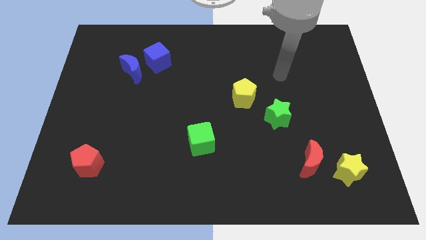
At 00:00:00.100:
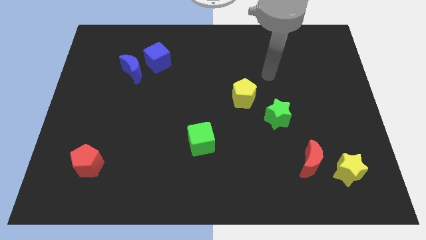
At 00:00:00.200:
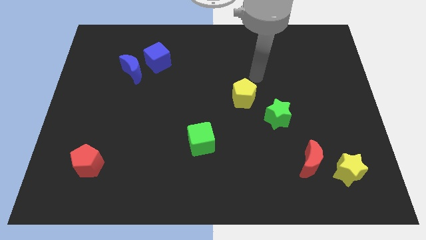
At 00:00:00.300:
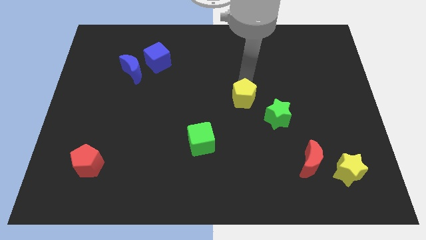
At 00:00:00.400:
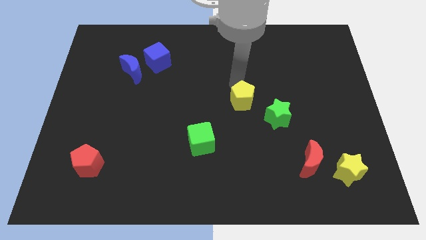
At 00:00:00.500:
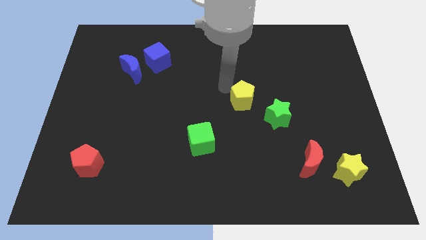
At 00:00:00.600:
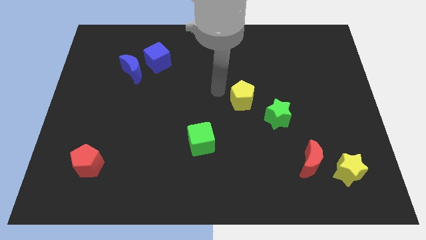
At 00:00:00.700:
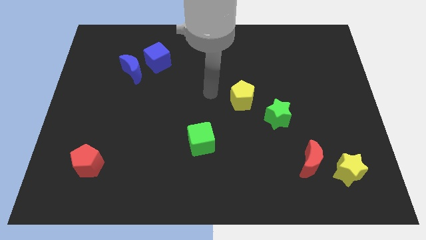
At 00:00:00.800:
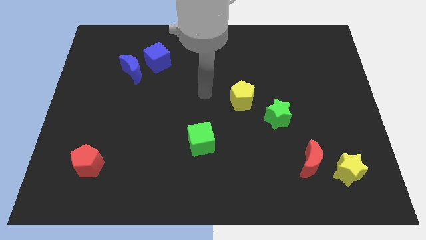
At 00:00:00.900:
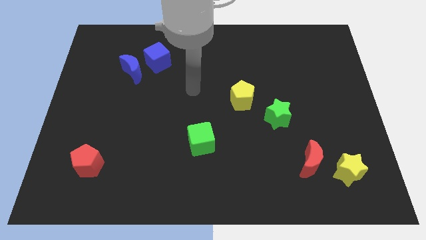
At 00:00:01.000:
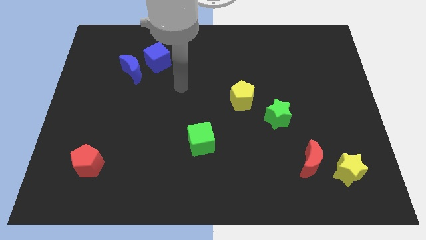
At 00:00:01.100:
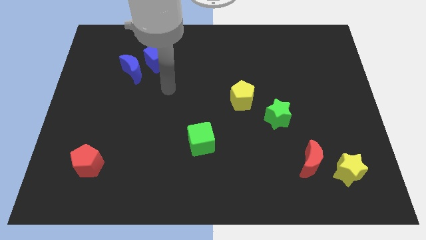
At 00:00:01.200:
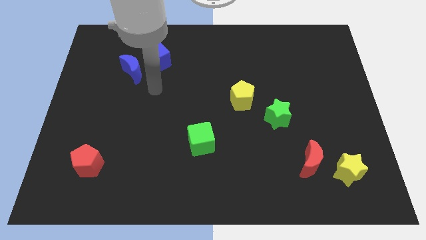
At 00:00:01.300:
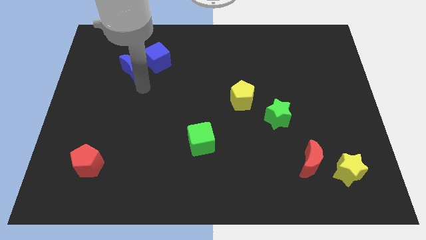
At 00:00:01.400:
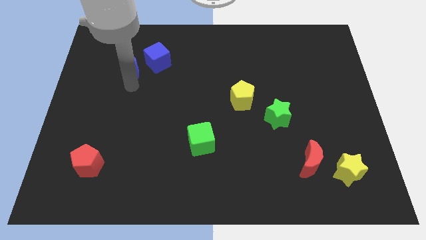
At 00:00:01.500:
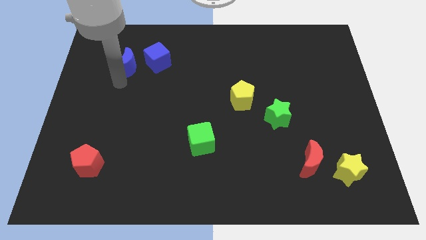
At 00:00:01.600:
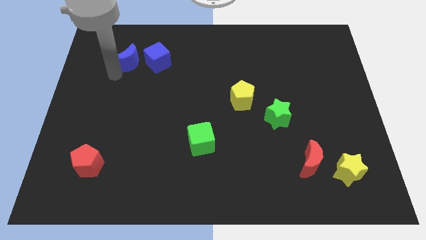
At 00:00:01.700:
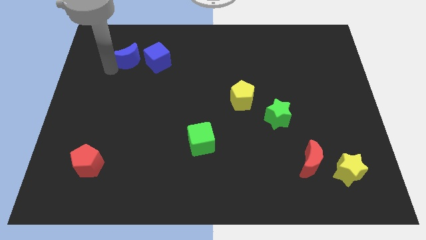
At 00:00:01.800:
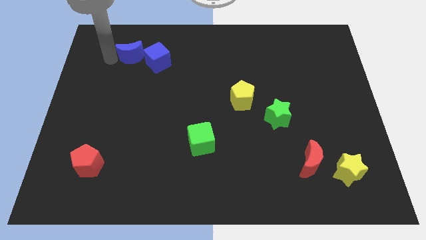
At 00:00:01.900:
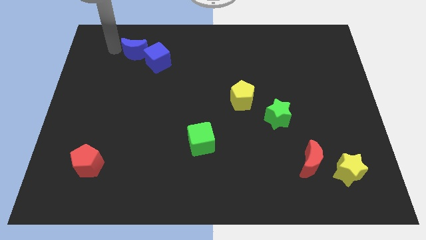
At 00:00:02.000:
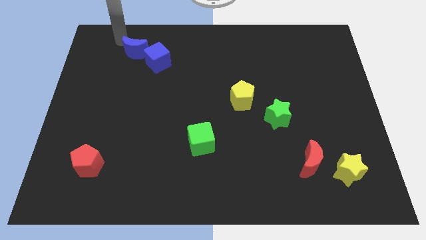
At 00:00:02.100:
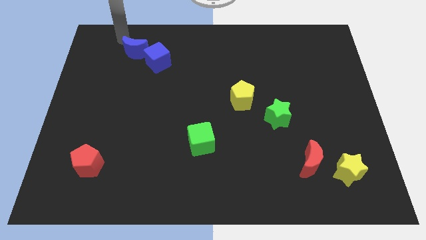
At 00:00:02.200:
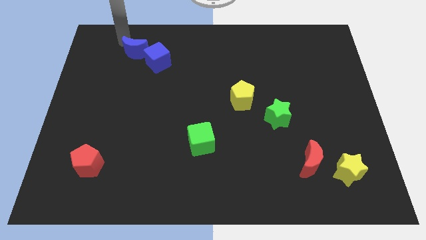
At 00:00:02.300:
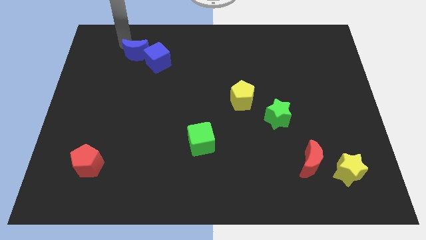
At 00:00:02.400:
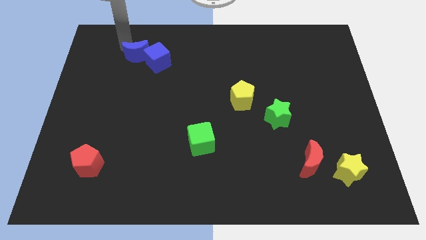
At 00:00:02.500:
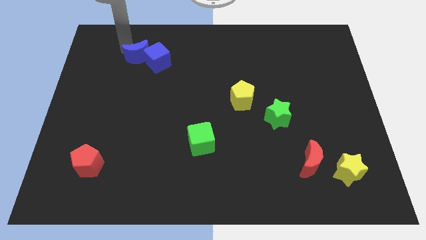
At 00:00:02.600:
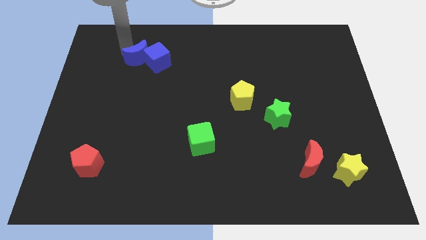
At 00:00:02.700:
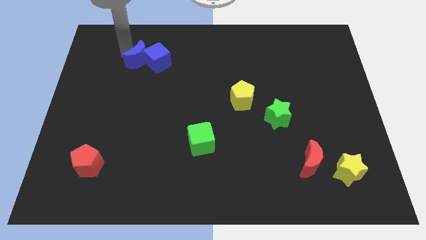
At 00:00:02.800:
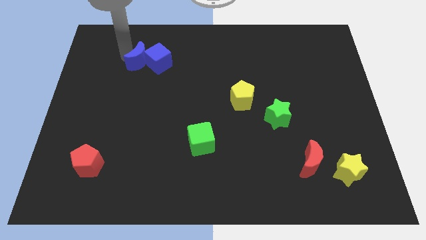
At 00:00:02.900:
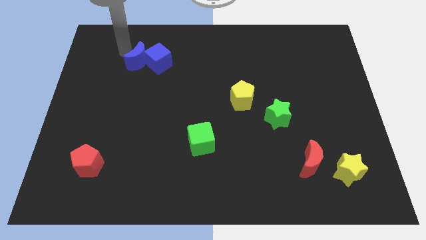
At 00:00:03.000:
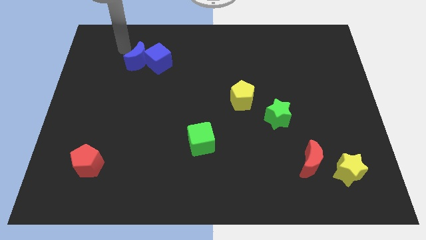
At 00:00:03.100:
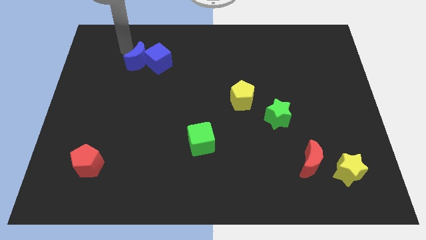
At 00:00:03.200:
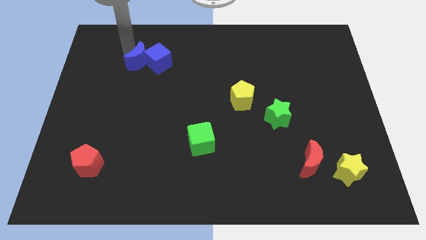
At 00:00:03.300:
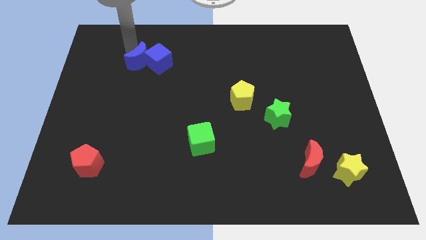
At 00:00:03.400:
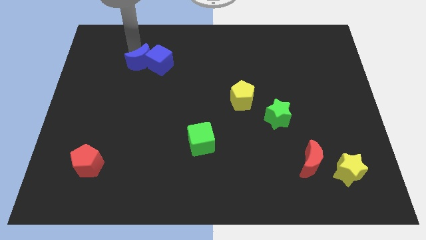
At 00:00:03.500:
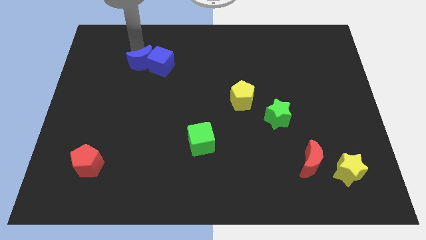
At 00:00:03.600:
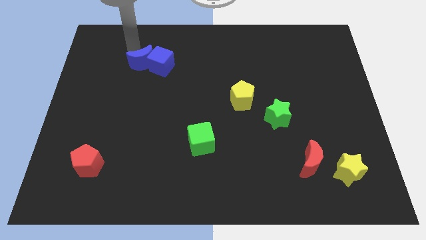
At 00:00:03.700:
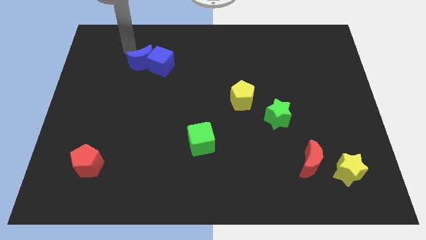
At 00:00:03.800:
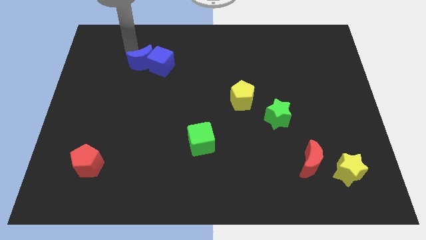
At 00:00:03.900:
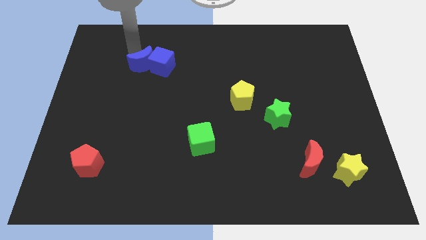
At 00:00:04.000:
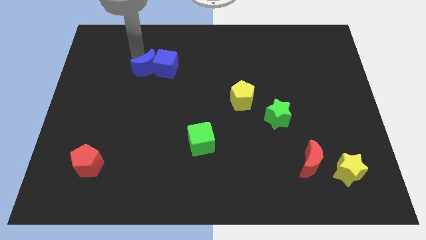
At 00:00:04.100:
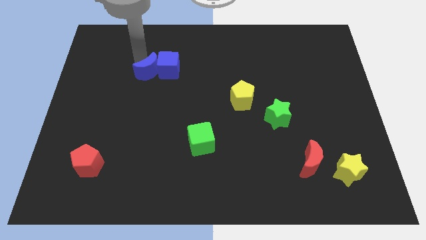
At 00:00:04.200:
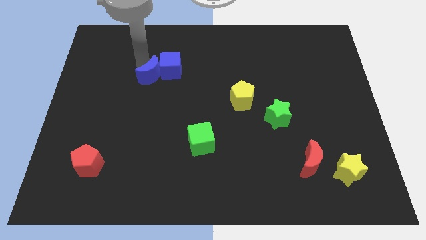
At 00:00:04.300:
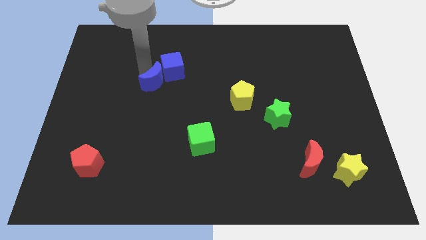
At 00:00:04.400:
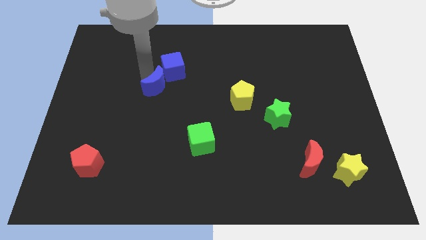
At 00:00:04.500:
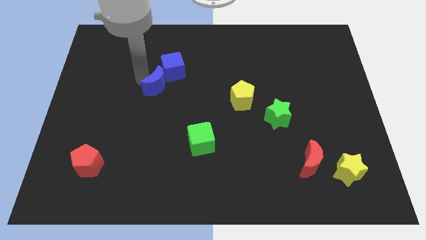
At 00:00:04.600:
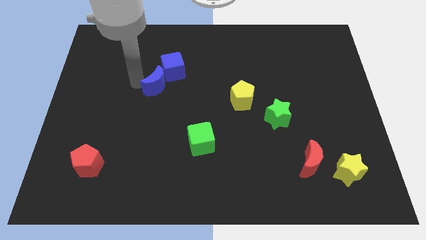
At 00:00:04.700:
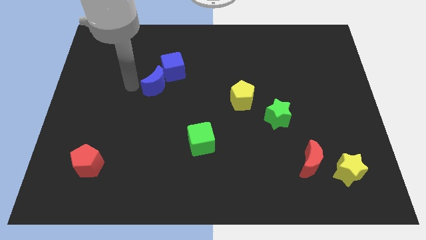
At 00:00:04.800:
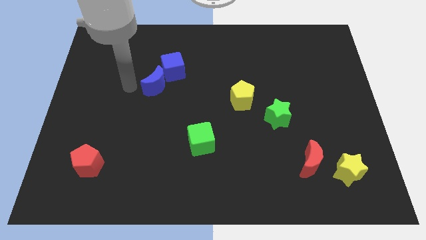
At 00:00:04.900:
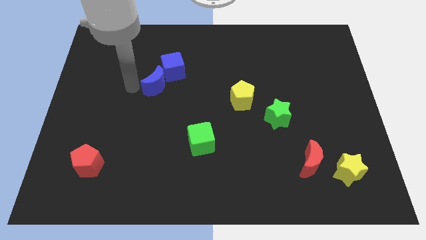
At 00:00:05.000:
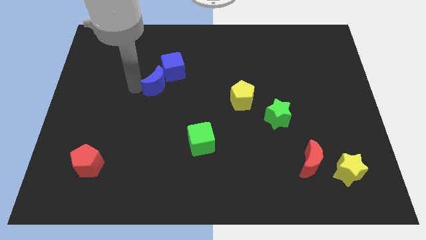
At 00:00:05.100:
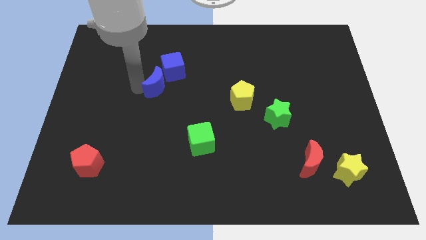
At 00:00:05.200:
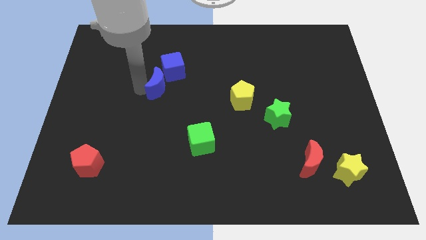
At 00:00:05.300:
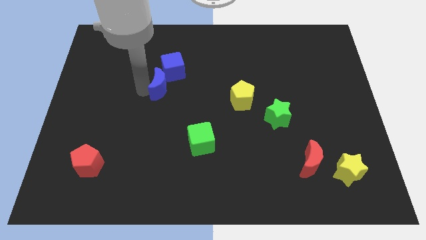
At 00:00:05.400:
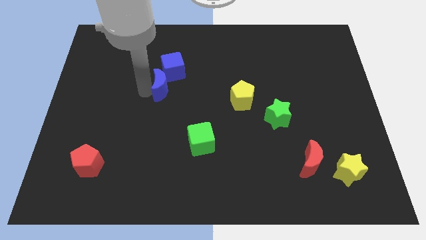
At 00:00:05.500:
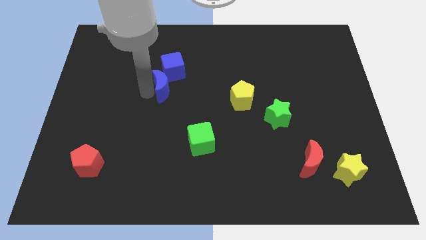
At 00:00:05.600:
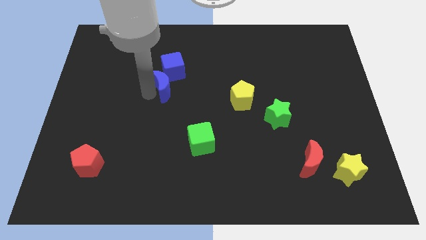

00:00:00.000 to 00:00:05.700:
push the blue moon to the center of the board
